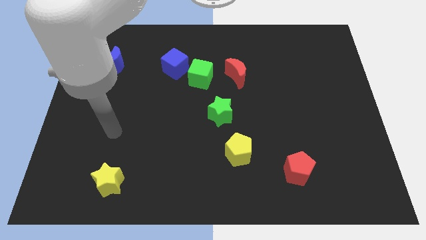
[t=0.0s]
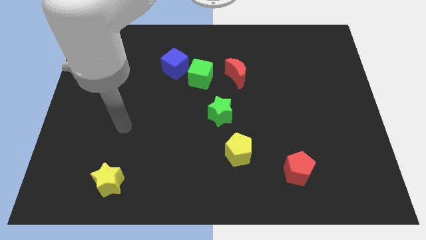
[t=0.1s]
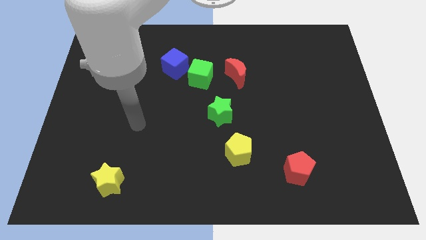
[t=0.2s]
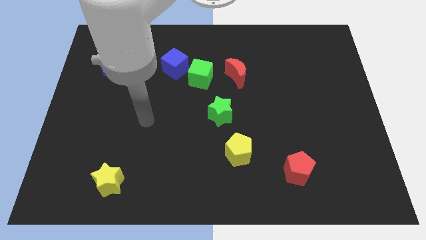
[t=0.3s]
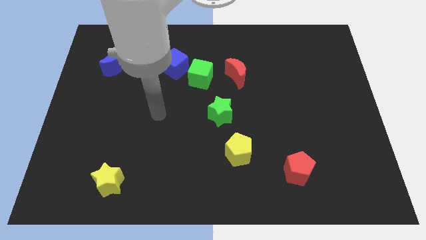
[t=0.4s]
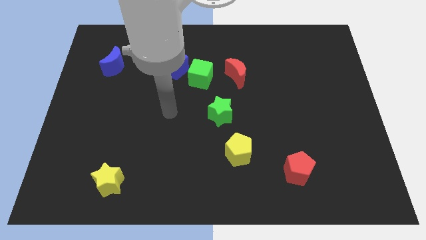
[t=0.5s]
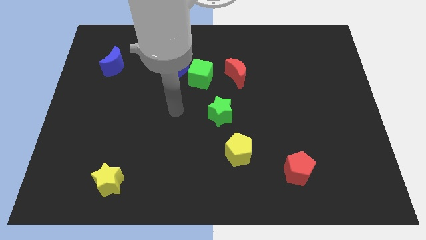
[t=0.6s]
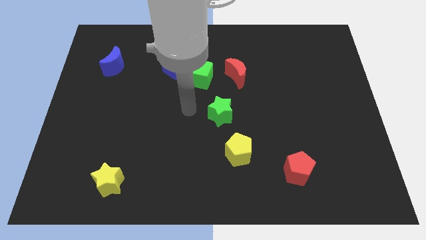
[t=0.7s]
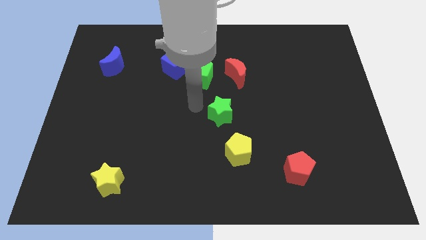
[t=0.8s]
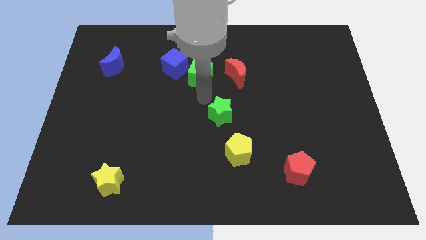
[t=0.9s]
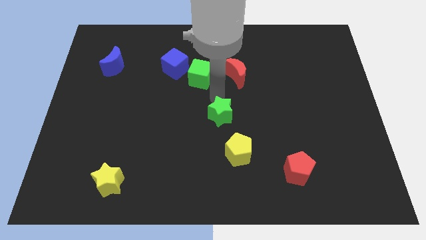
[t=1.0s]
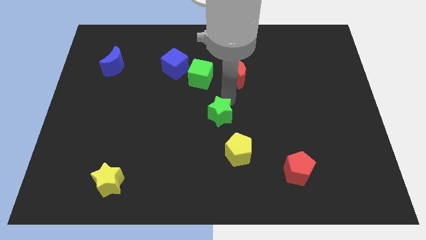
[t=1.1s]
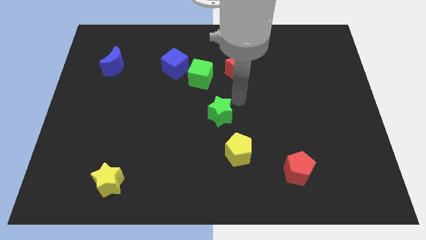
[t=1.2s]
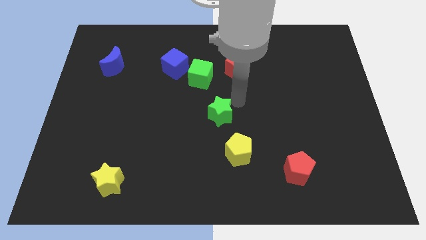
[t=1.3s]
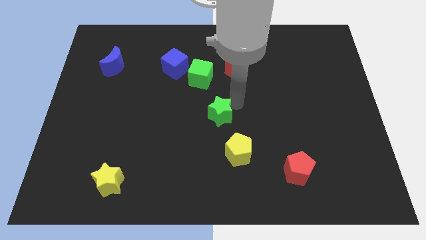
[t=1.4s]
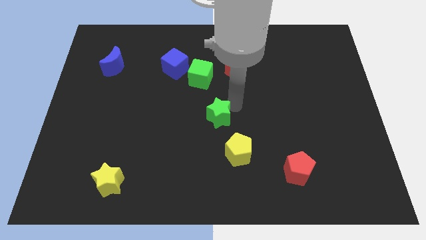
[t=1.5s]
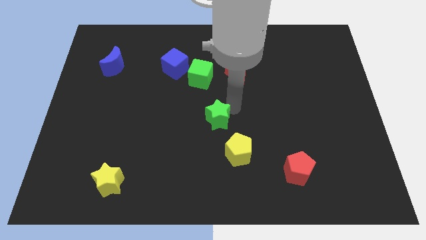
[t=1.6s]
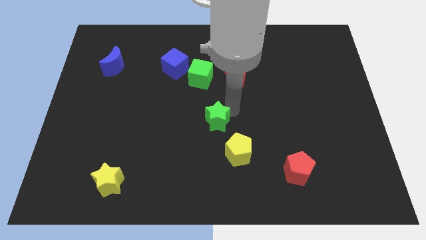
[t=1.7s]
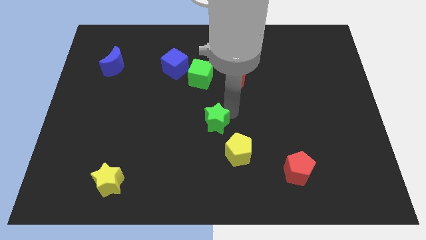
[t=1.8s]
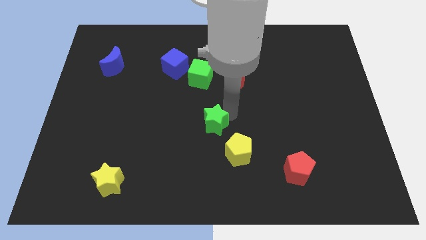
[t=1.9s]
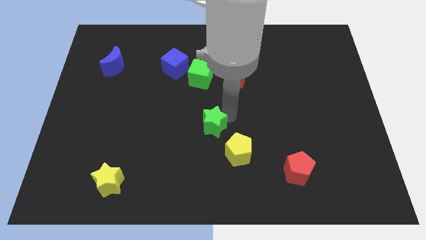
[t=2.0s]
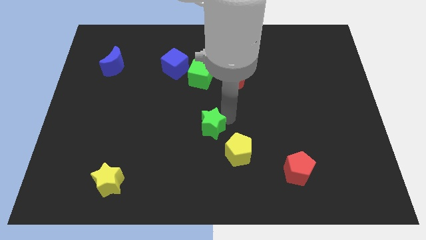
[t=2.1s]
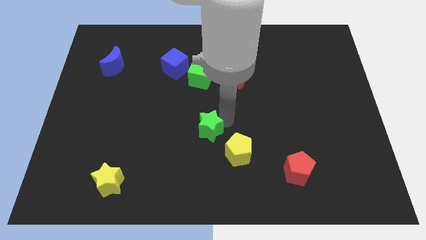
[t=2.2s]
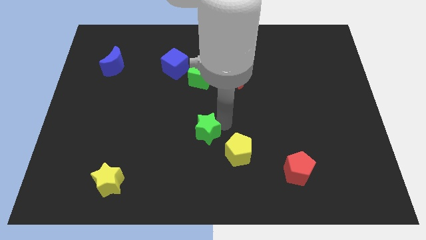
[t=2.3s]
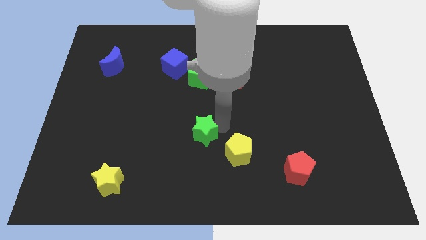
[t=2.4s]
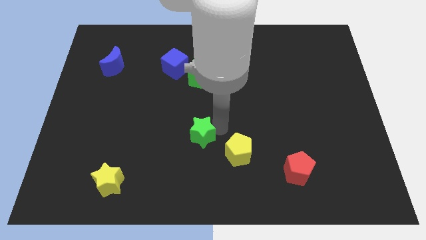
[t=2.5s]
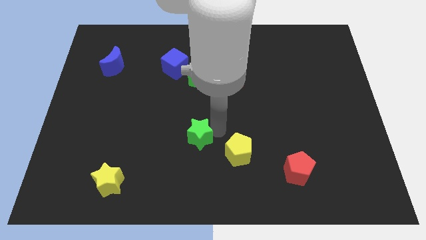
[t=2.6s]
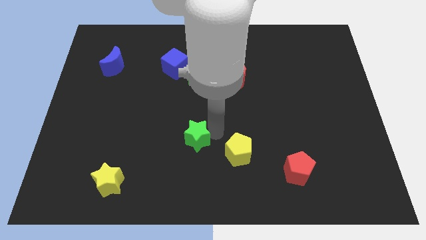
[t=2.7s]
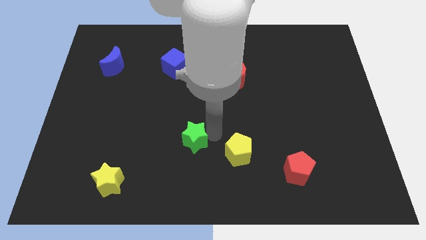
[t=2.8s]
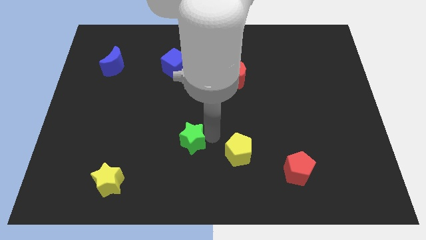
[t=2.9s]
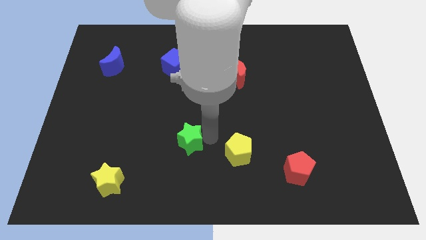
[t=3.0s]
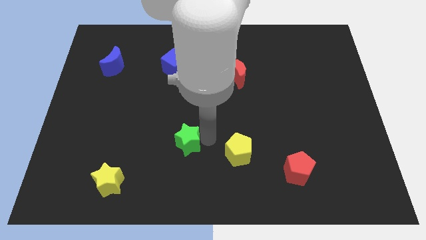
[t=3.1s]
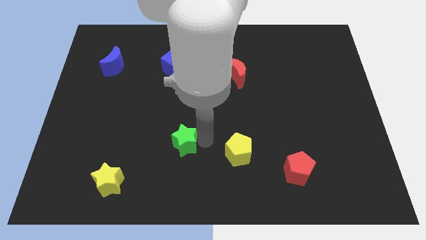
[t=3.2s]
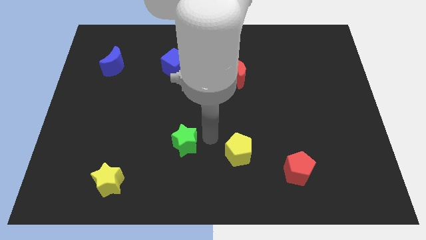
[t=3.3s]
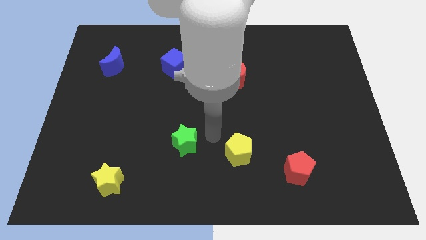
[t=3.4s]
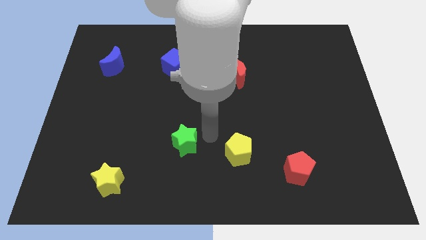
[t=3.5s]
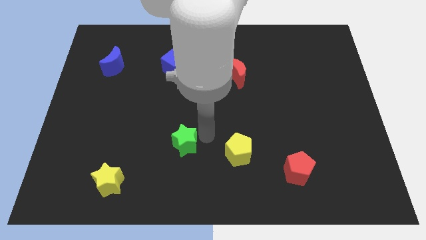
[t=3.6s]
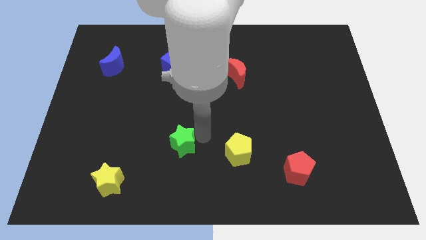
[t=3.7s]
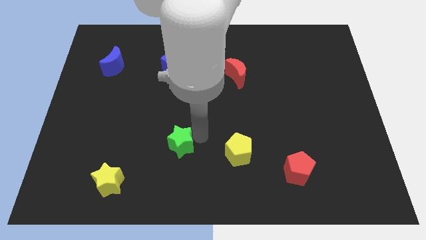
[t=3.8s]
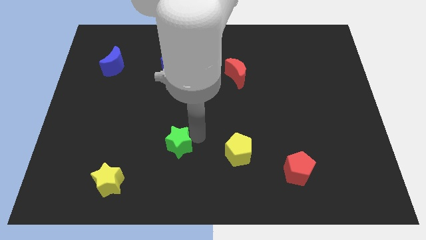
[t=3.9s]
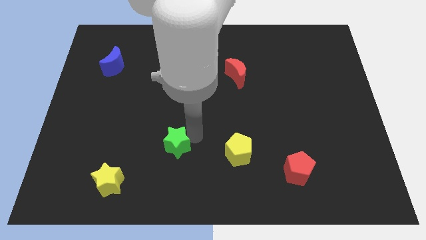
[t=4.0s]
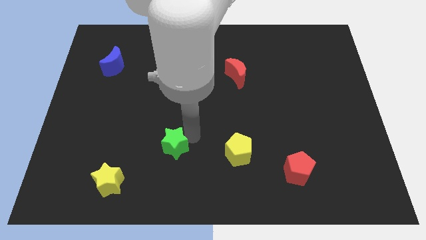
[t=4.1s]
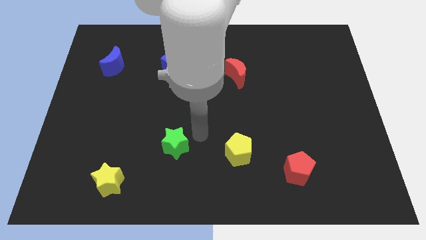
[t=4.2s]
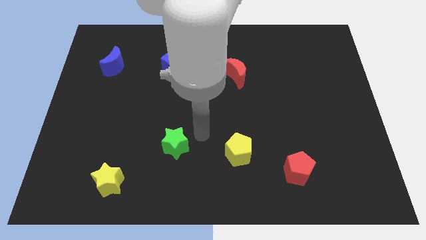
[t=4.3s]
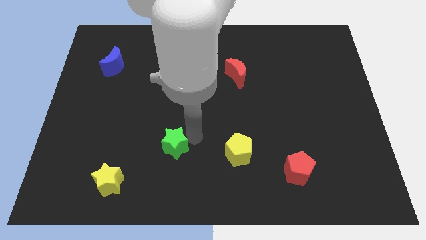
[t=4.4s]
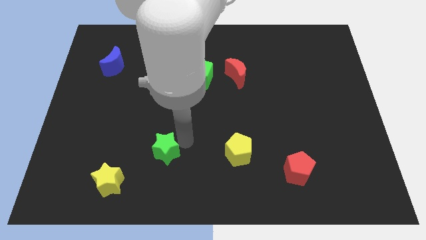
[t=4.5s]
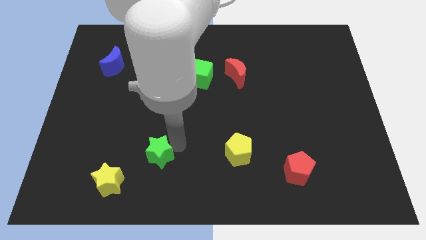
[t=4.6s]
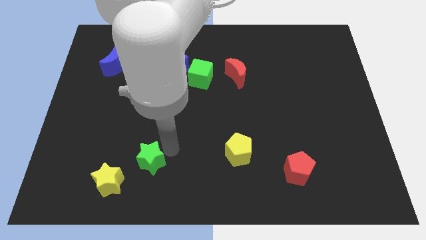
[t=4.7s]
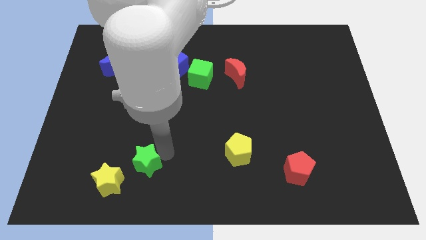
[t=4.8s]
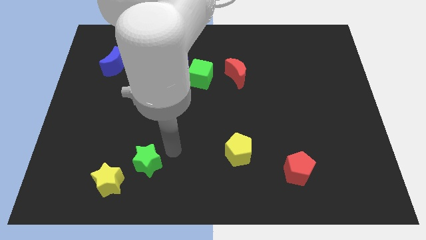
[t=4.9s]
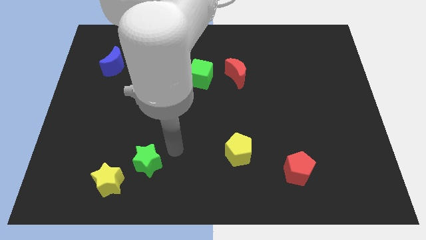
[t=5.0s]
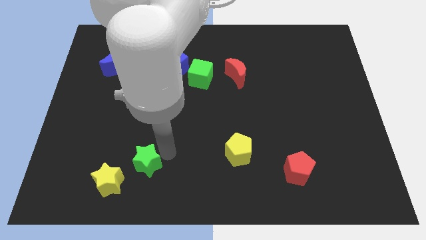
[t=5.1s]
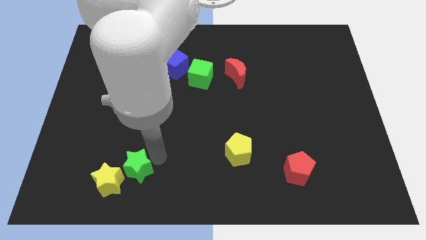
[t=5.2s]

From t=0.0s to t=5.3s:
move the green star to the yellow star

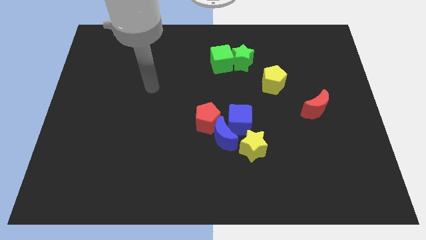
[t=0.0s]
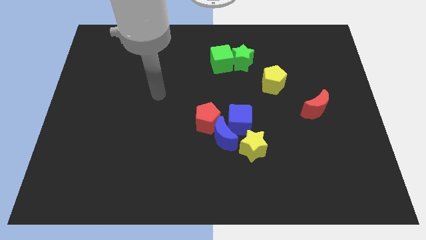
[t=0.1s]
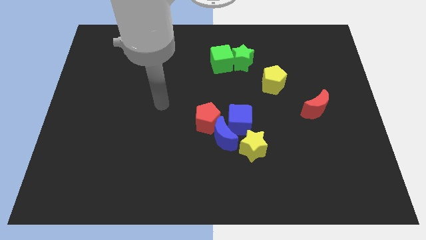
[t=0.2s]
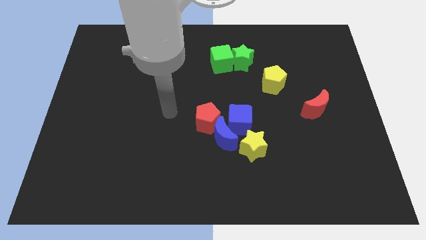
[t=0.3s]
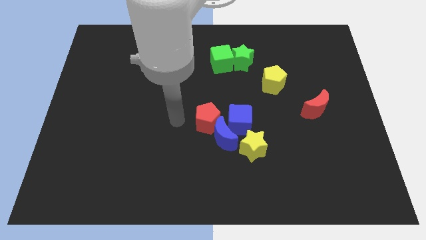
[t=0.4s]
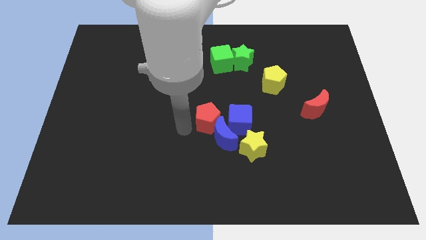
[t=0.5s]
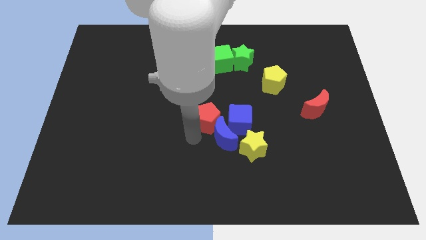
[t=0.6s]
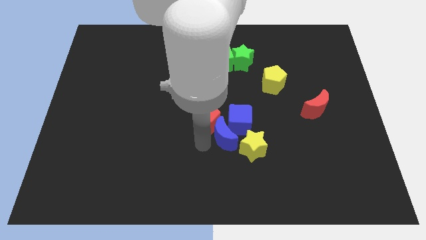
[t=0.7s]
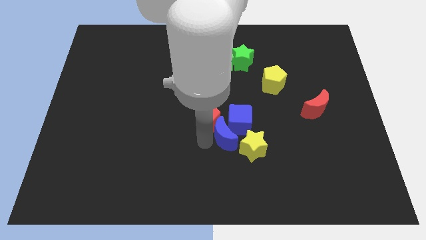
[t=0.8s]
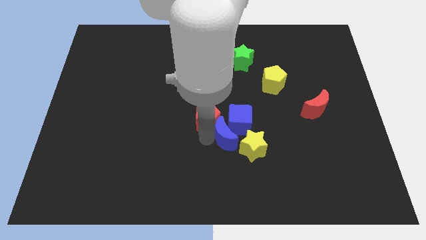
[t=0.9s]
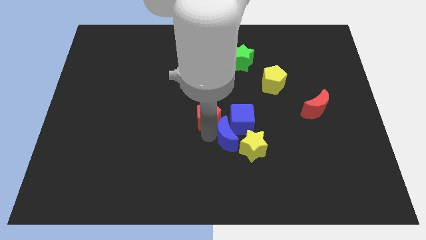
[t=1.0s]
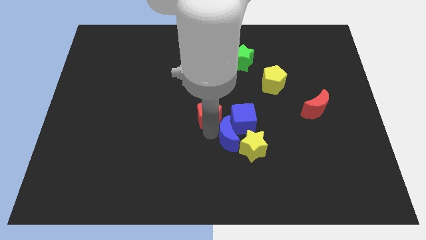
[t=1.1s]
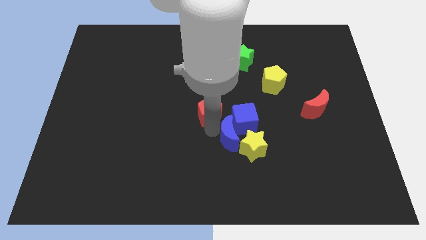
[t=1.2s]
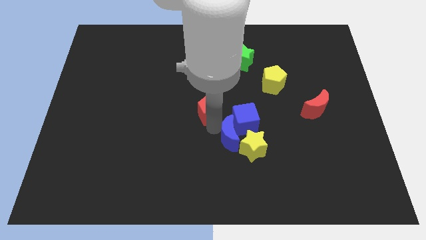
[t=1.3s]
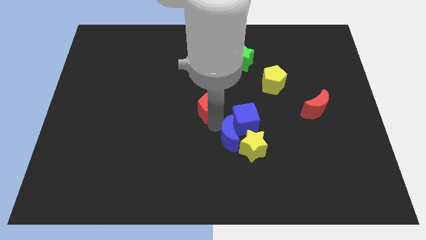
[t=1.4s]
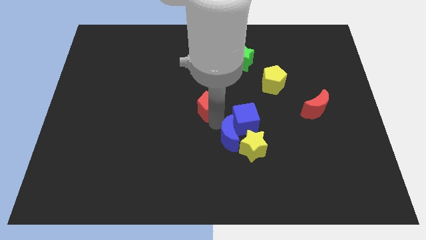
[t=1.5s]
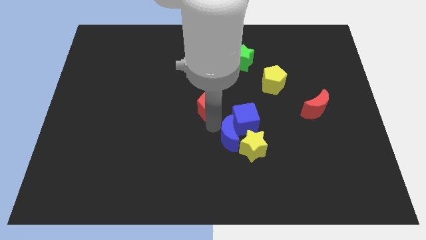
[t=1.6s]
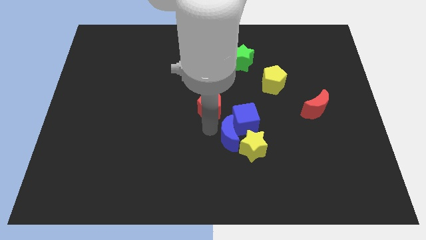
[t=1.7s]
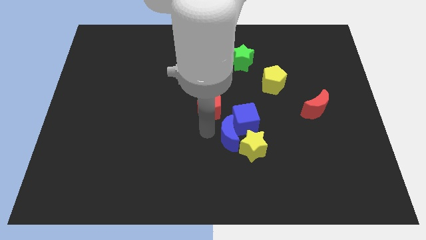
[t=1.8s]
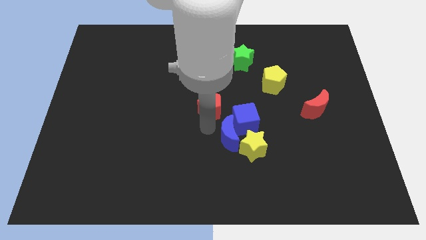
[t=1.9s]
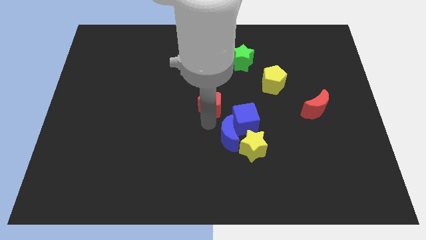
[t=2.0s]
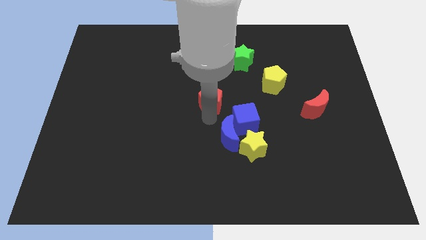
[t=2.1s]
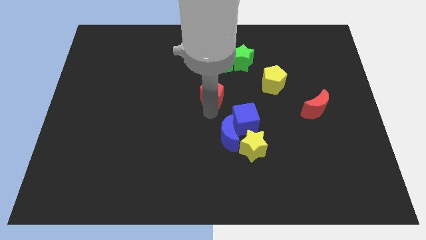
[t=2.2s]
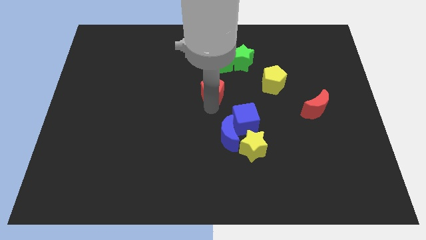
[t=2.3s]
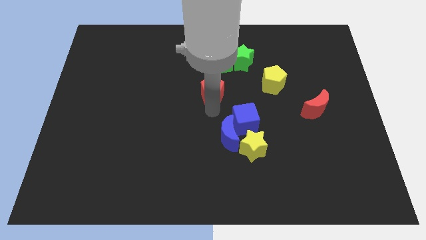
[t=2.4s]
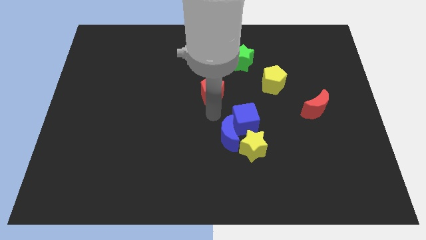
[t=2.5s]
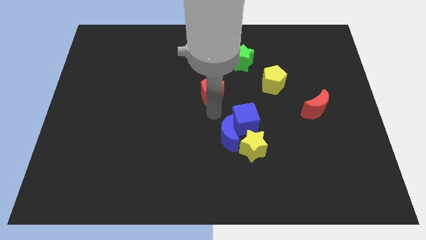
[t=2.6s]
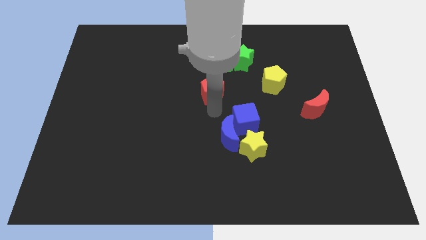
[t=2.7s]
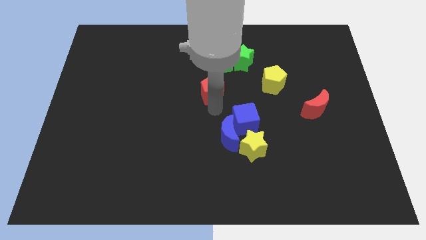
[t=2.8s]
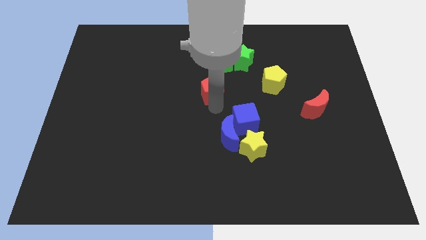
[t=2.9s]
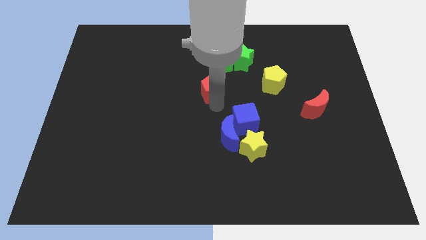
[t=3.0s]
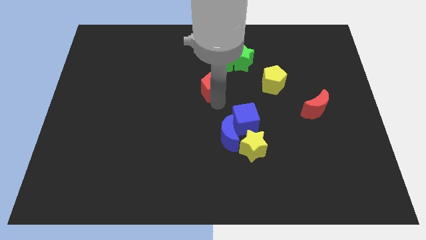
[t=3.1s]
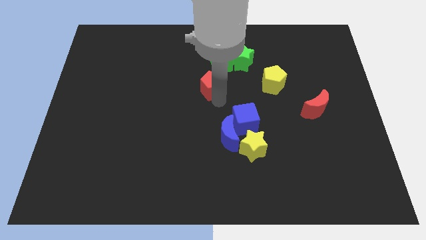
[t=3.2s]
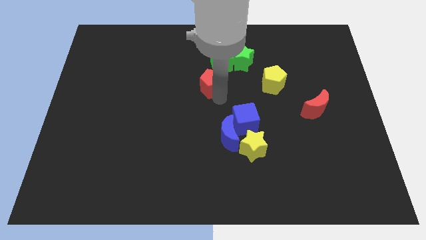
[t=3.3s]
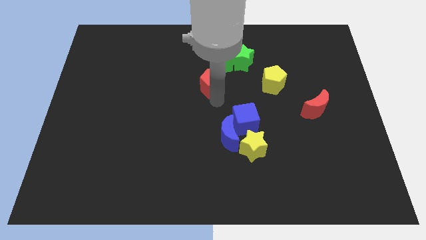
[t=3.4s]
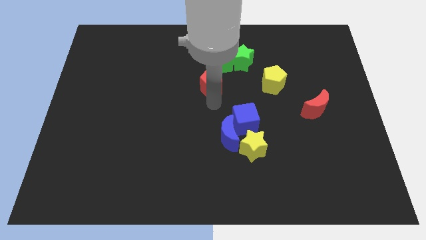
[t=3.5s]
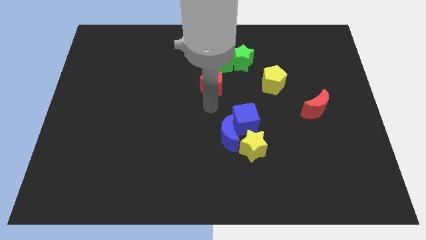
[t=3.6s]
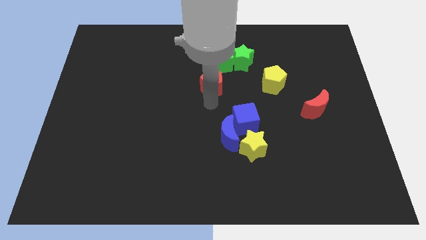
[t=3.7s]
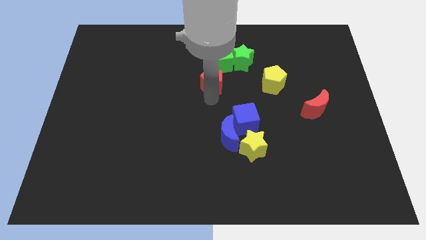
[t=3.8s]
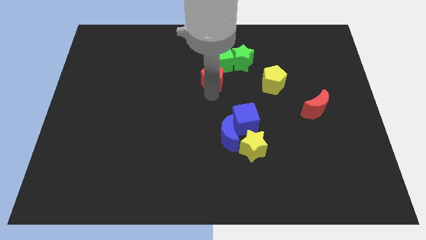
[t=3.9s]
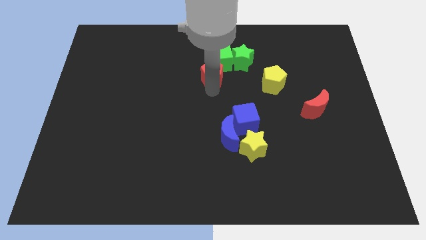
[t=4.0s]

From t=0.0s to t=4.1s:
push the red pentagon next to the green cube
